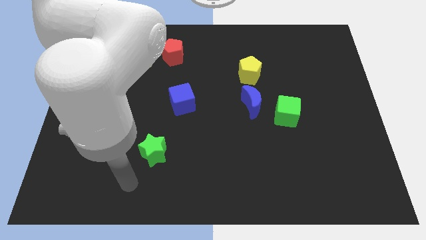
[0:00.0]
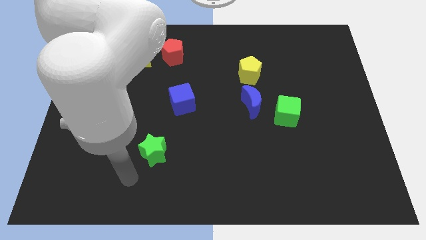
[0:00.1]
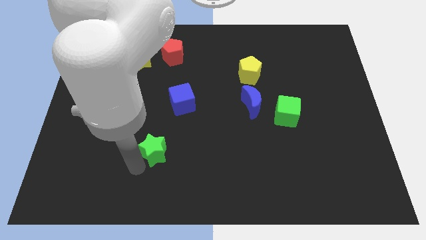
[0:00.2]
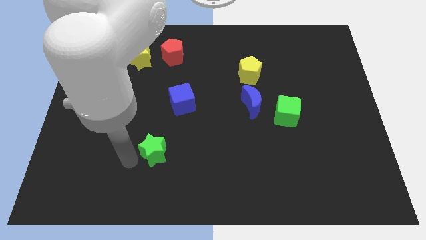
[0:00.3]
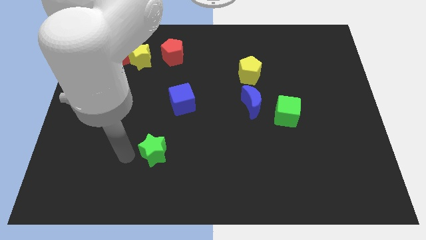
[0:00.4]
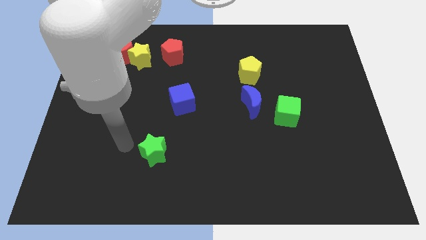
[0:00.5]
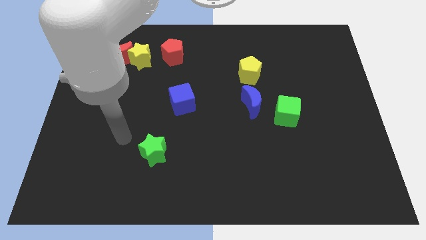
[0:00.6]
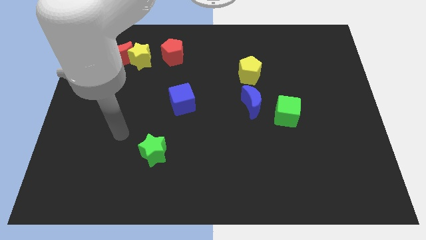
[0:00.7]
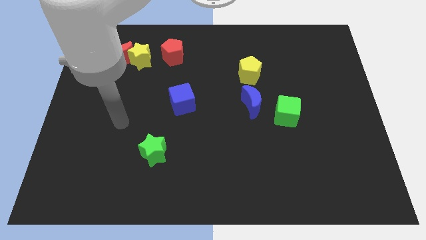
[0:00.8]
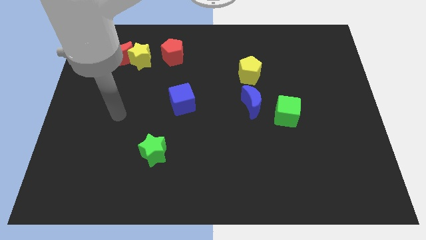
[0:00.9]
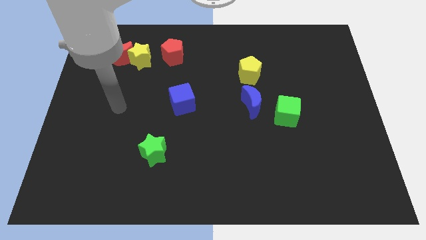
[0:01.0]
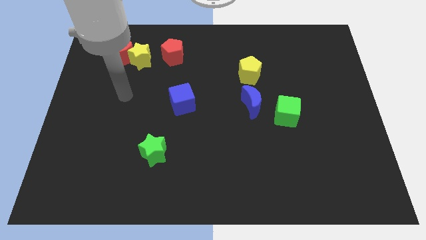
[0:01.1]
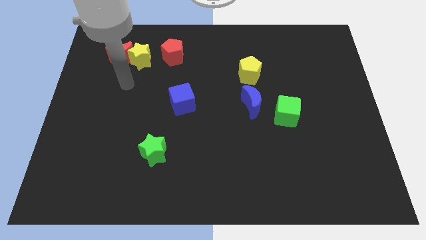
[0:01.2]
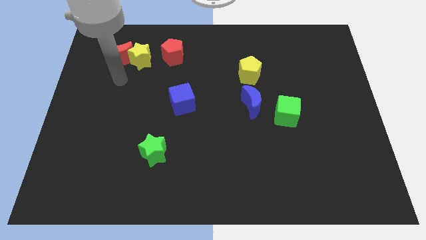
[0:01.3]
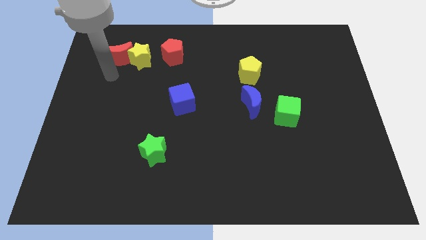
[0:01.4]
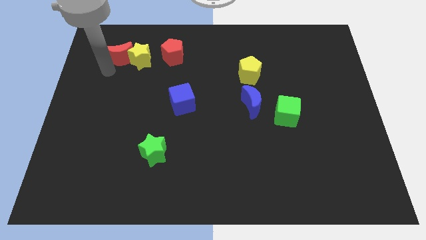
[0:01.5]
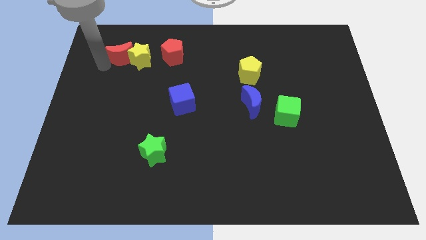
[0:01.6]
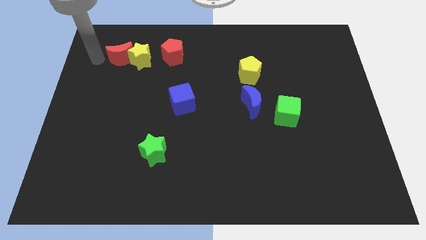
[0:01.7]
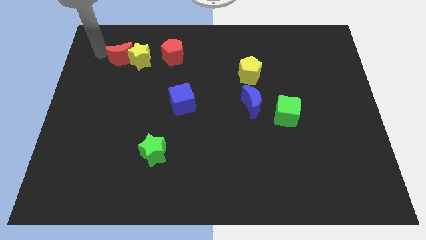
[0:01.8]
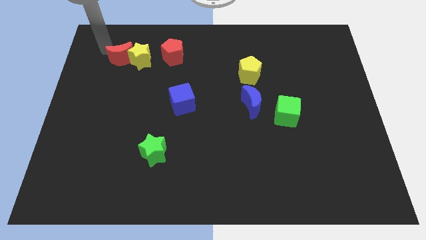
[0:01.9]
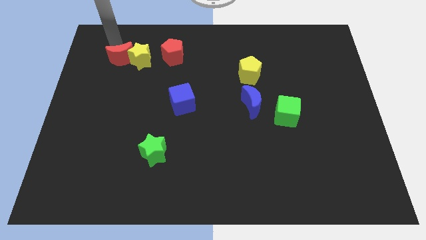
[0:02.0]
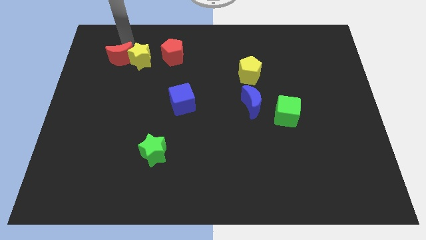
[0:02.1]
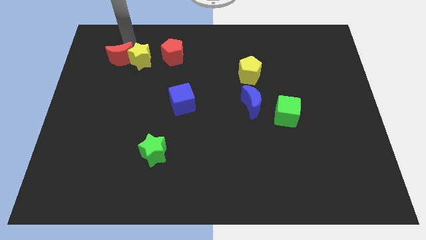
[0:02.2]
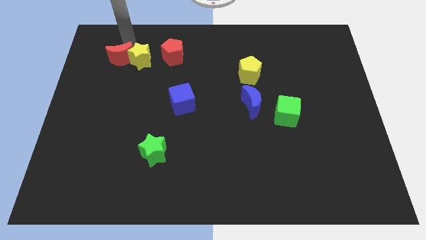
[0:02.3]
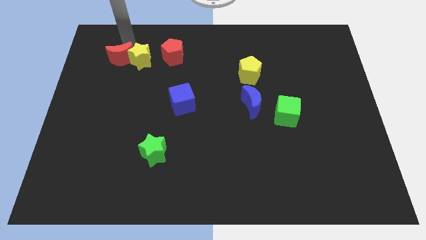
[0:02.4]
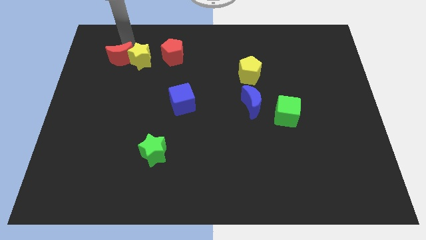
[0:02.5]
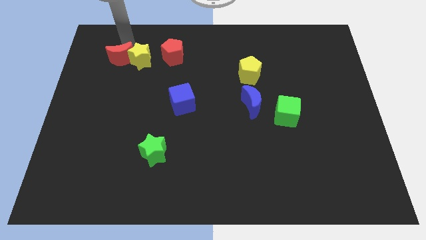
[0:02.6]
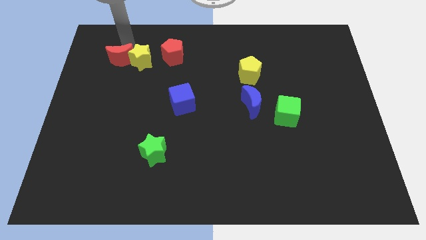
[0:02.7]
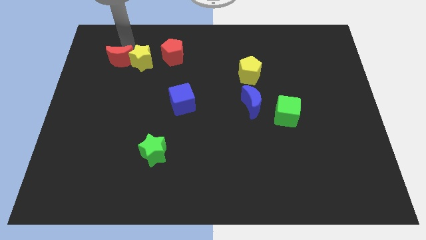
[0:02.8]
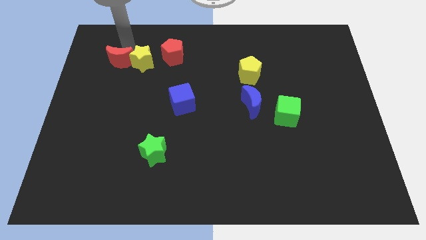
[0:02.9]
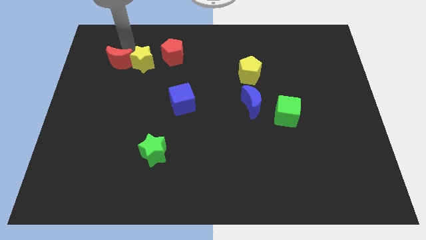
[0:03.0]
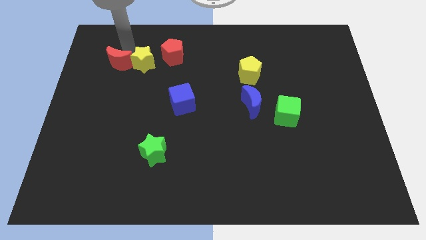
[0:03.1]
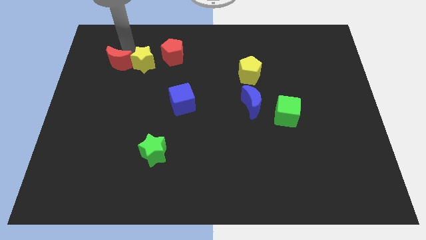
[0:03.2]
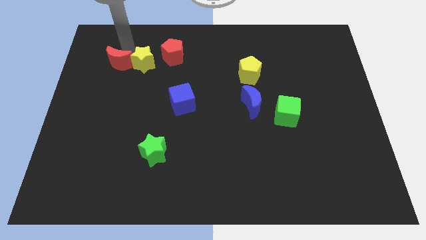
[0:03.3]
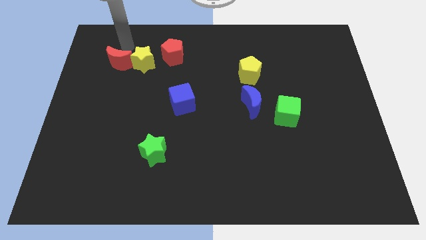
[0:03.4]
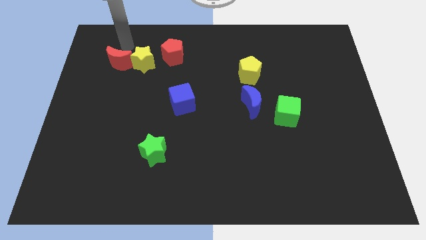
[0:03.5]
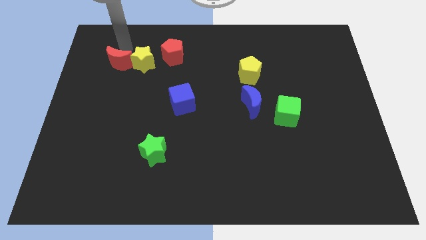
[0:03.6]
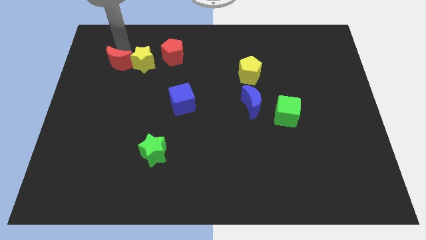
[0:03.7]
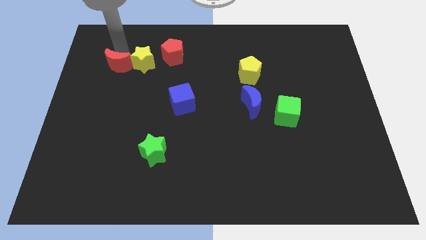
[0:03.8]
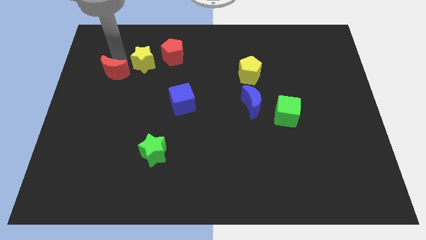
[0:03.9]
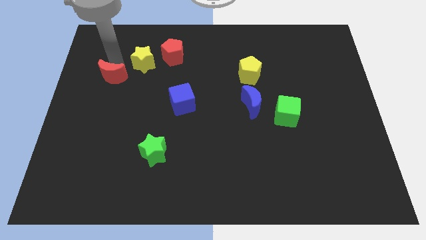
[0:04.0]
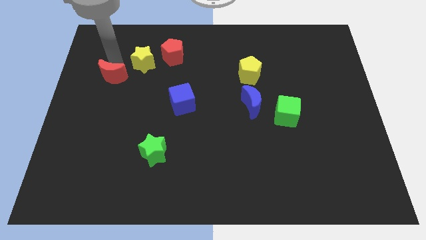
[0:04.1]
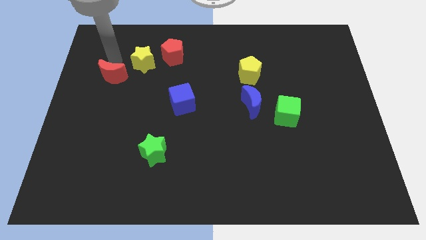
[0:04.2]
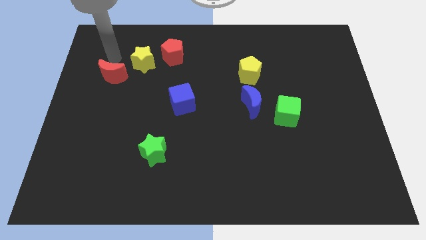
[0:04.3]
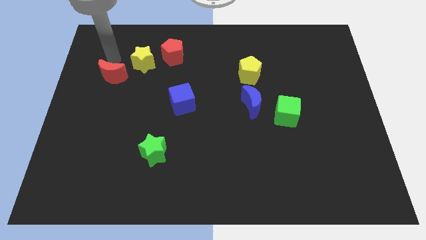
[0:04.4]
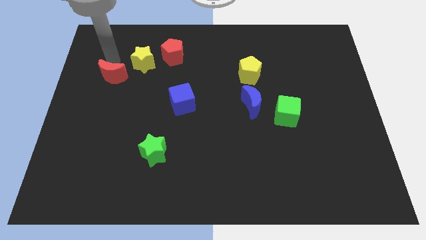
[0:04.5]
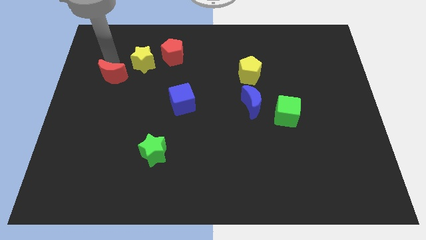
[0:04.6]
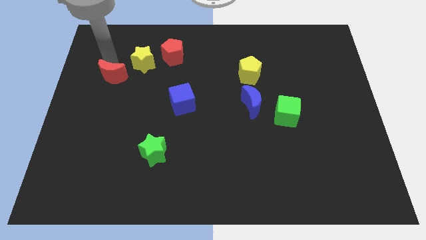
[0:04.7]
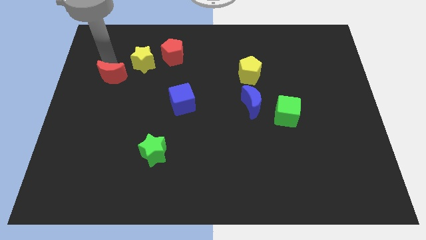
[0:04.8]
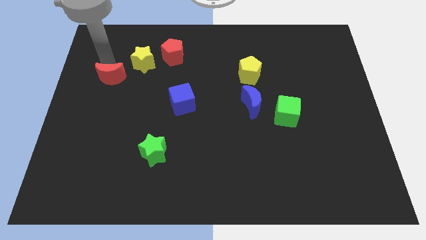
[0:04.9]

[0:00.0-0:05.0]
slightly push the red moon down

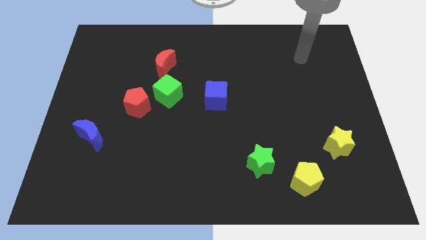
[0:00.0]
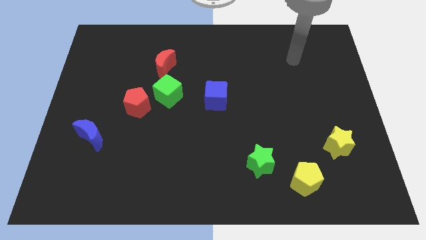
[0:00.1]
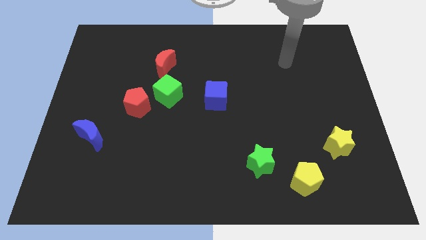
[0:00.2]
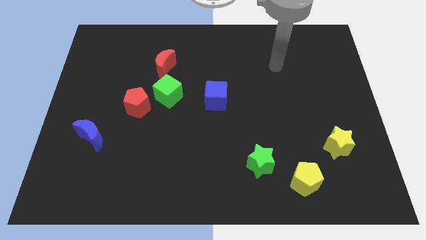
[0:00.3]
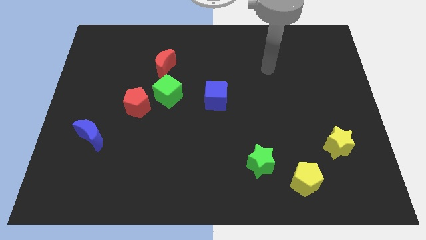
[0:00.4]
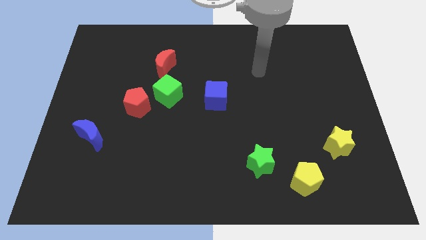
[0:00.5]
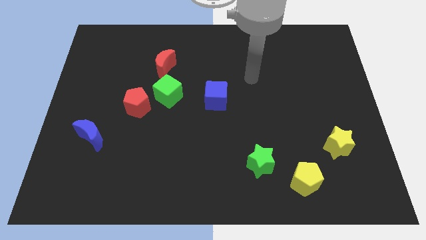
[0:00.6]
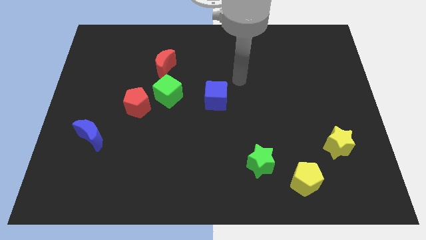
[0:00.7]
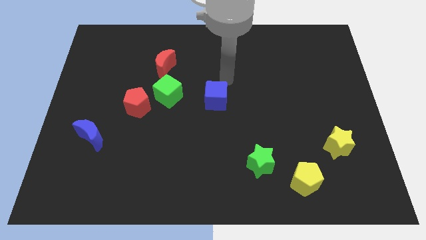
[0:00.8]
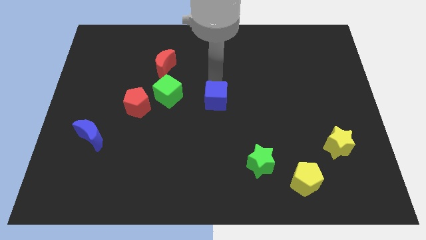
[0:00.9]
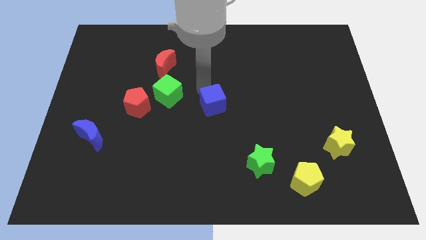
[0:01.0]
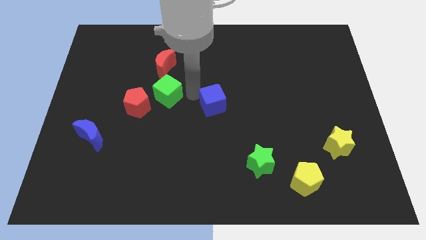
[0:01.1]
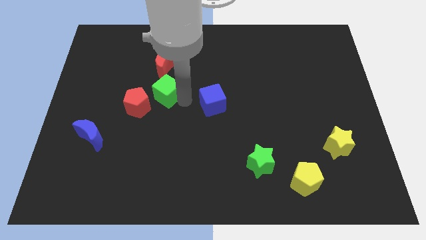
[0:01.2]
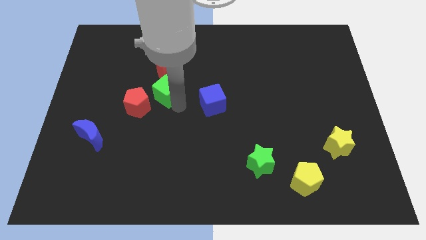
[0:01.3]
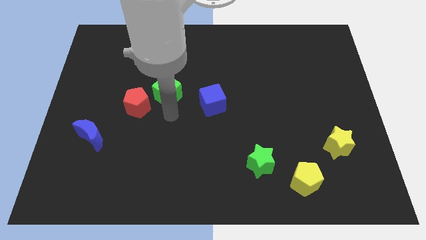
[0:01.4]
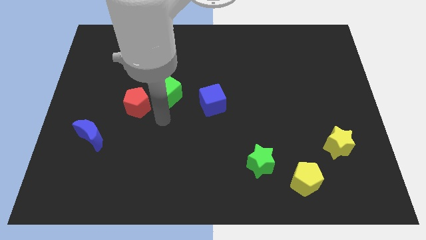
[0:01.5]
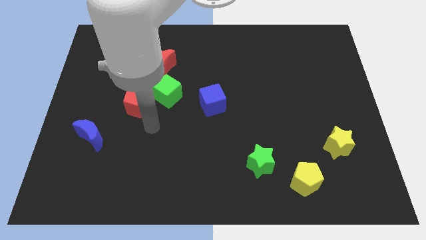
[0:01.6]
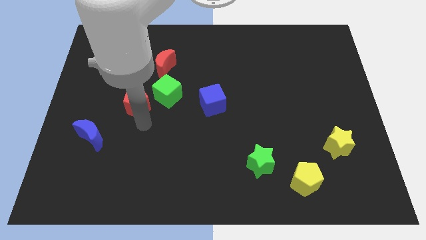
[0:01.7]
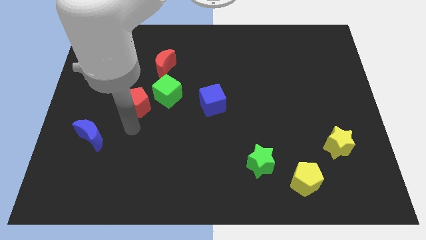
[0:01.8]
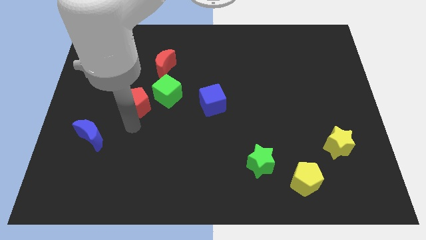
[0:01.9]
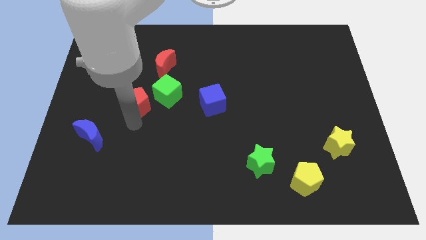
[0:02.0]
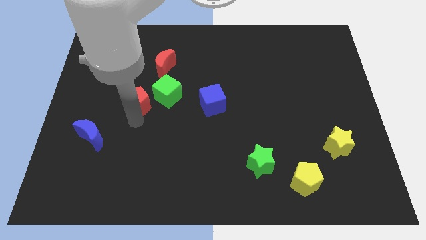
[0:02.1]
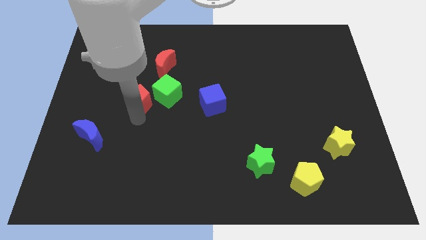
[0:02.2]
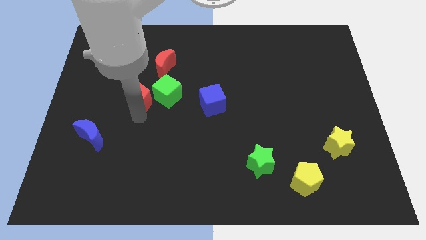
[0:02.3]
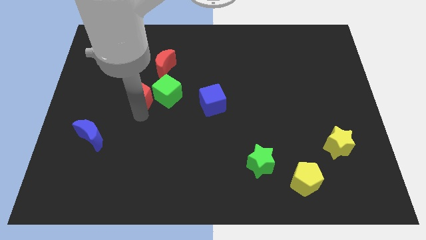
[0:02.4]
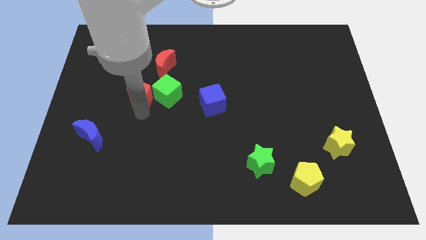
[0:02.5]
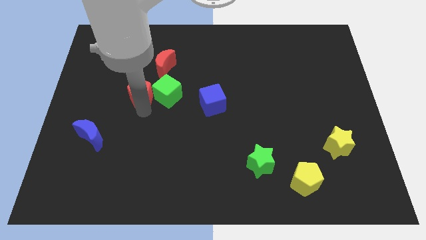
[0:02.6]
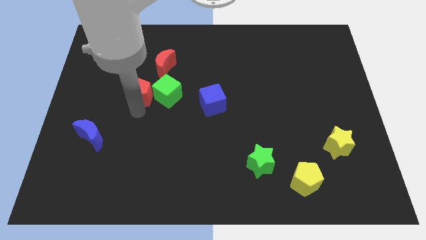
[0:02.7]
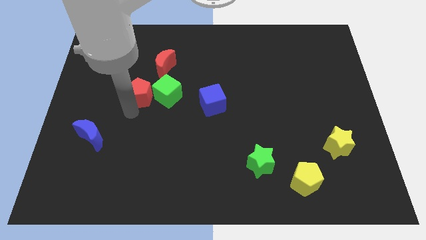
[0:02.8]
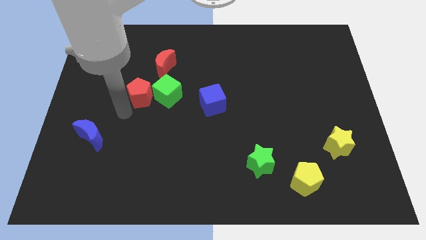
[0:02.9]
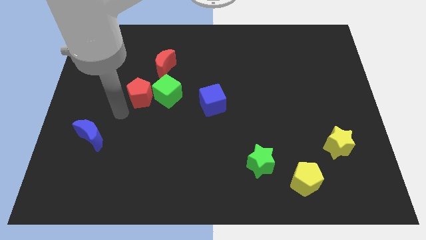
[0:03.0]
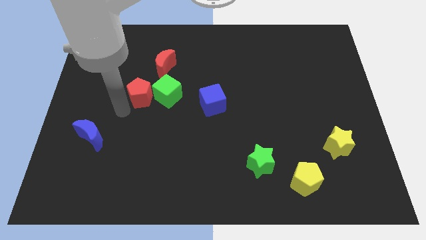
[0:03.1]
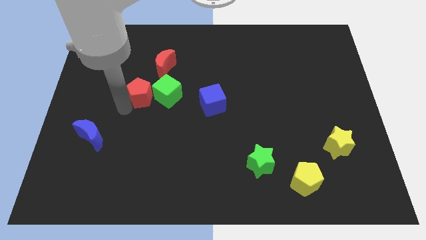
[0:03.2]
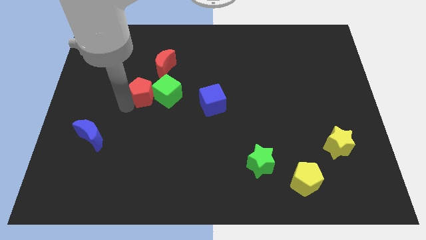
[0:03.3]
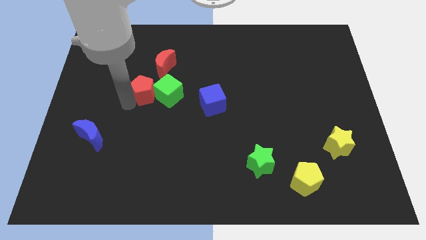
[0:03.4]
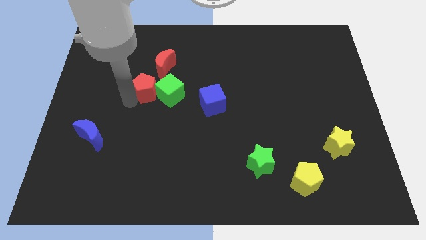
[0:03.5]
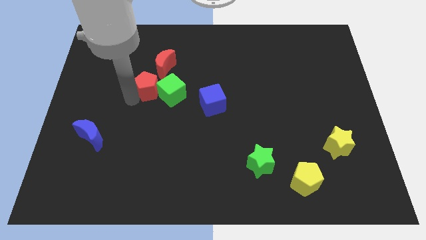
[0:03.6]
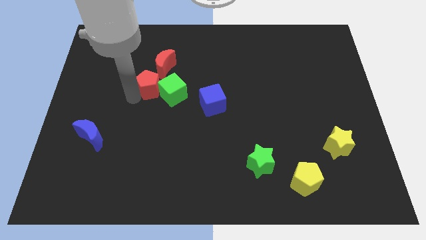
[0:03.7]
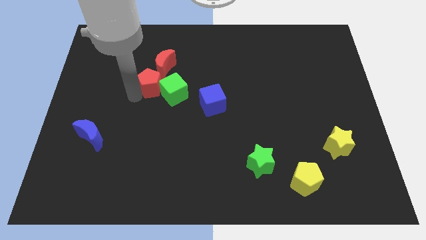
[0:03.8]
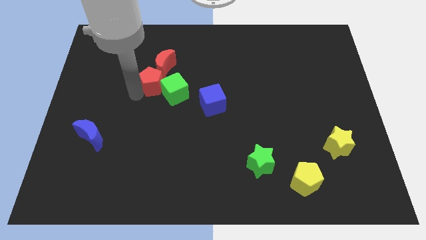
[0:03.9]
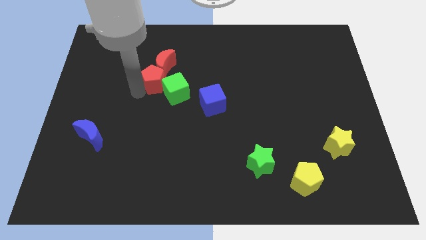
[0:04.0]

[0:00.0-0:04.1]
slightly move the red pentagon up and right diagonally
